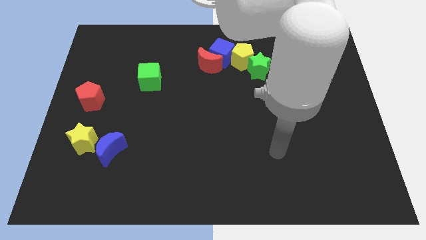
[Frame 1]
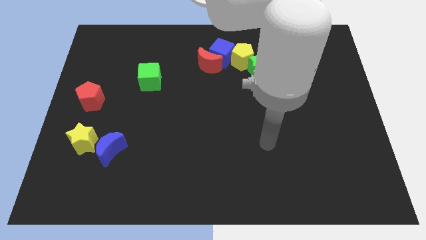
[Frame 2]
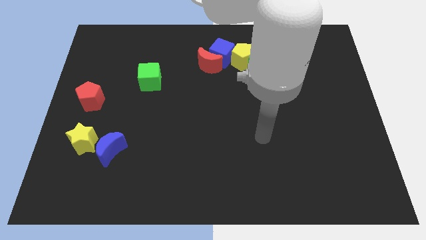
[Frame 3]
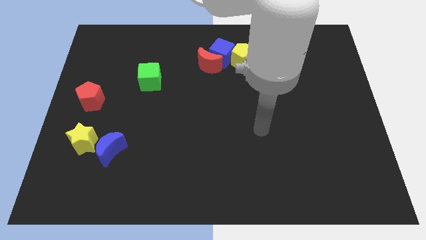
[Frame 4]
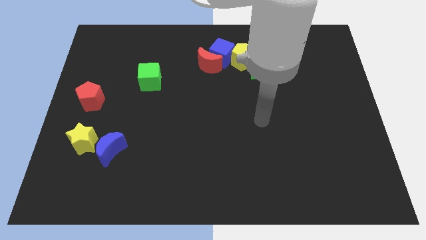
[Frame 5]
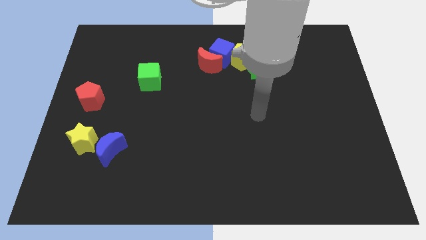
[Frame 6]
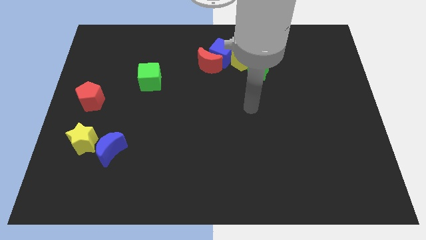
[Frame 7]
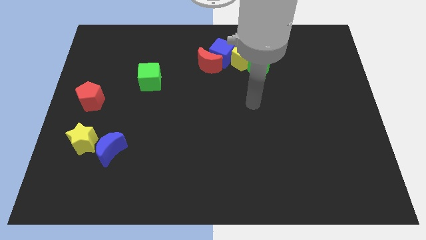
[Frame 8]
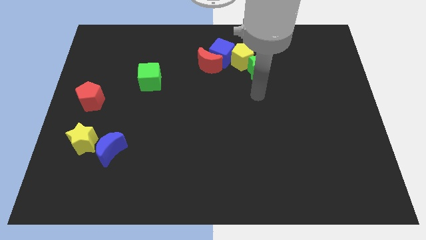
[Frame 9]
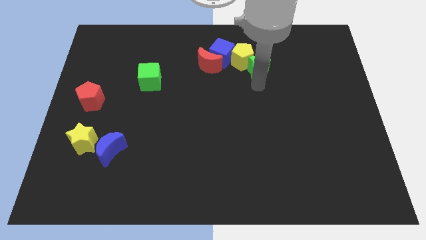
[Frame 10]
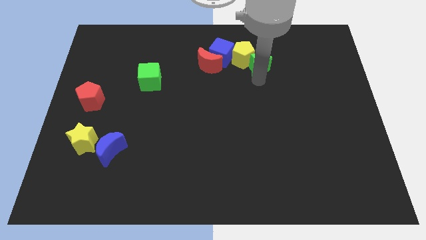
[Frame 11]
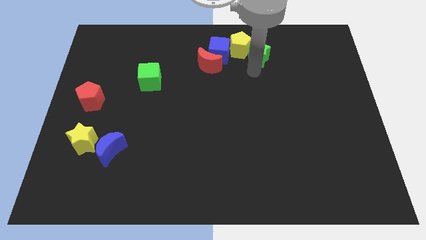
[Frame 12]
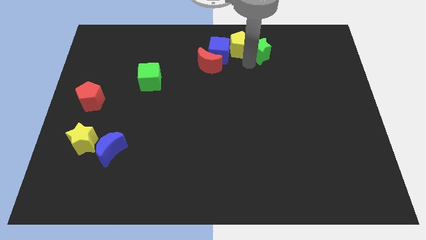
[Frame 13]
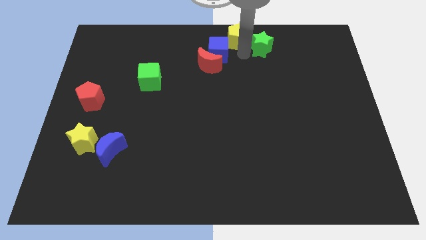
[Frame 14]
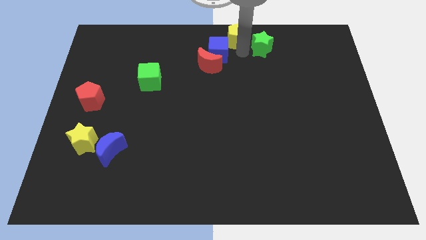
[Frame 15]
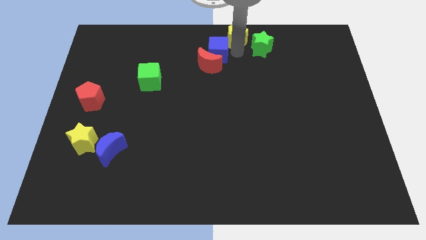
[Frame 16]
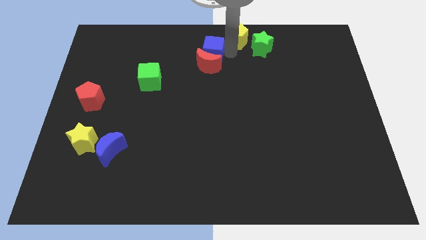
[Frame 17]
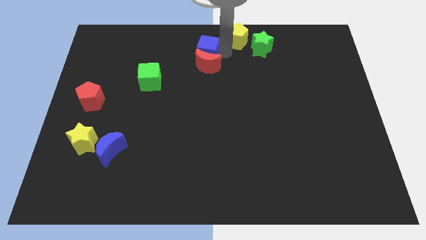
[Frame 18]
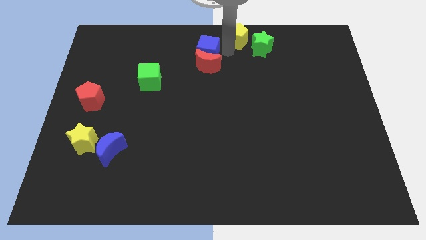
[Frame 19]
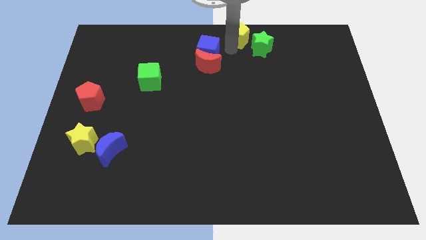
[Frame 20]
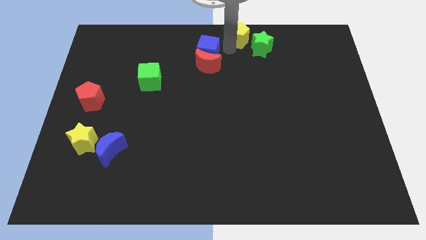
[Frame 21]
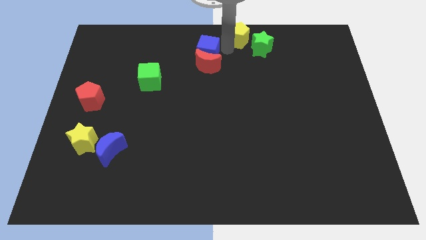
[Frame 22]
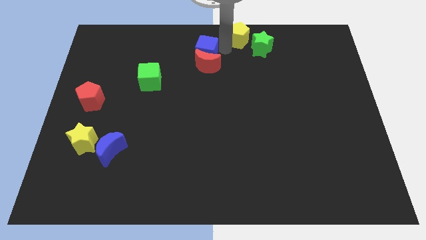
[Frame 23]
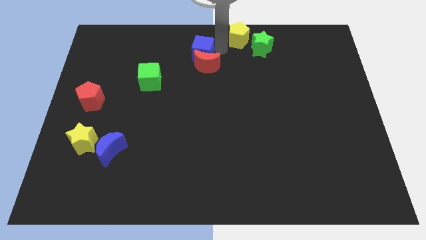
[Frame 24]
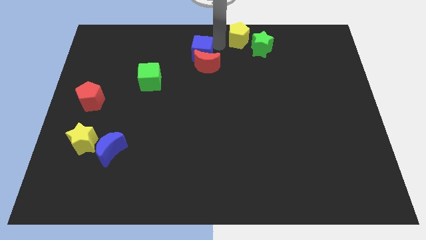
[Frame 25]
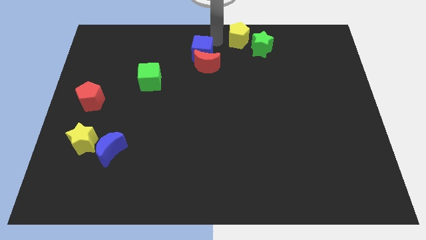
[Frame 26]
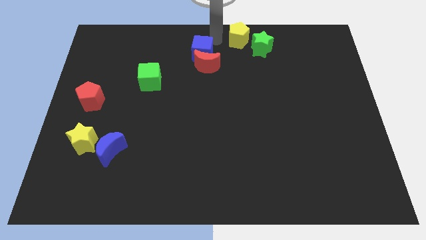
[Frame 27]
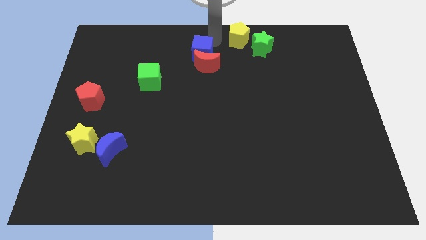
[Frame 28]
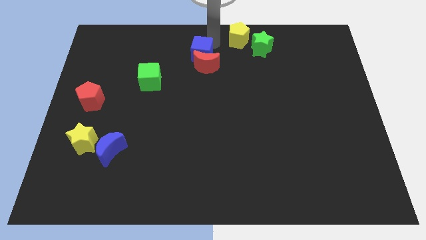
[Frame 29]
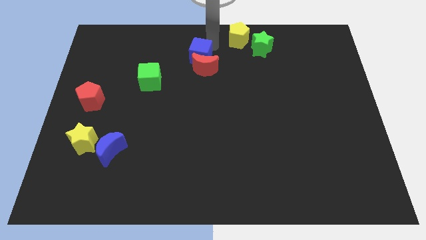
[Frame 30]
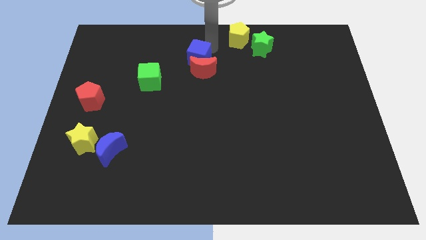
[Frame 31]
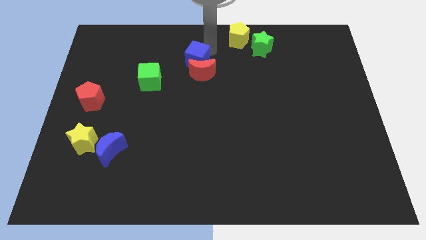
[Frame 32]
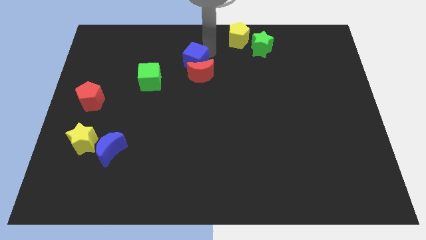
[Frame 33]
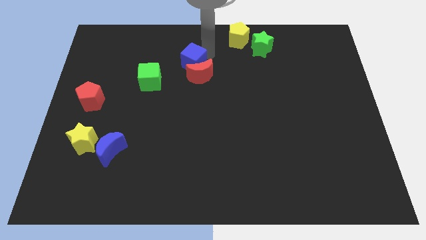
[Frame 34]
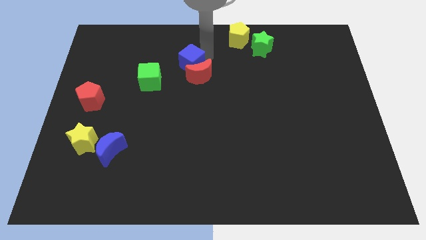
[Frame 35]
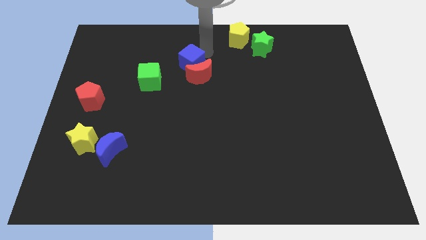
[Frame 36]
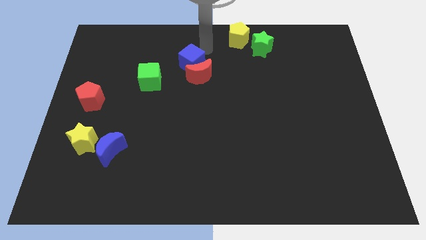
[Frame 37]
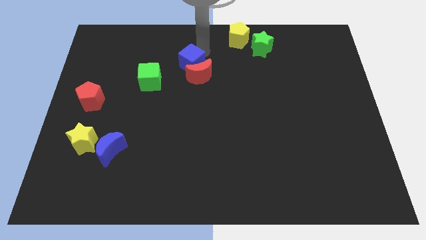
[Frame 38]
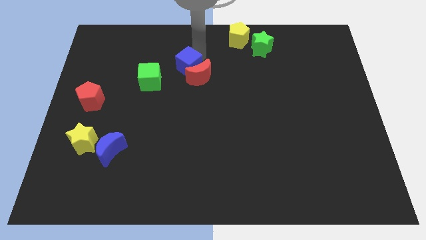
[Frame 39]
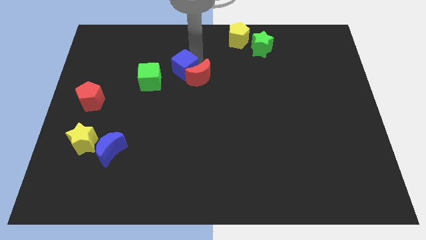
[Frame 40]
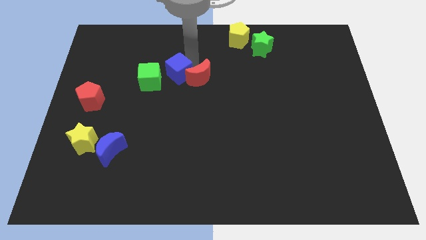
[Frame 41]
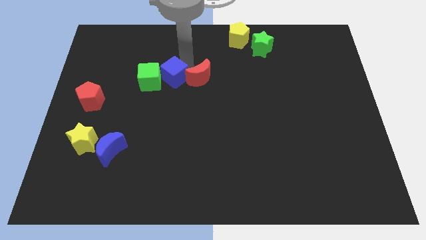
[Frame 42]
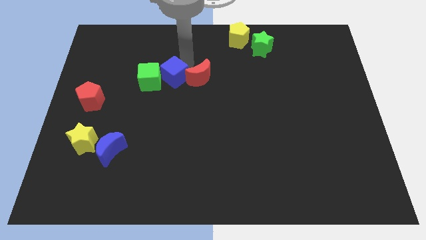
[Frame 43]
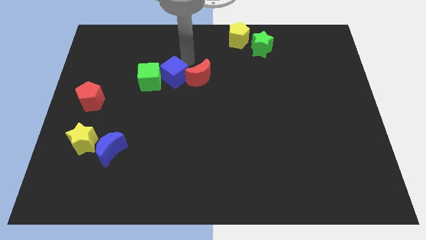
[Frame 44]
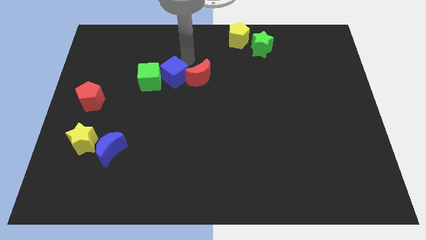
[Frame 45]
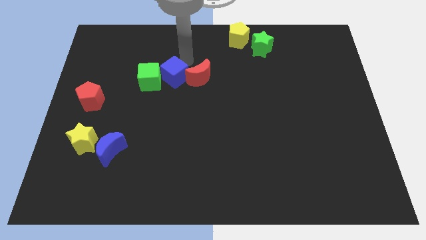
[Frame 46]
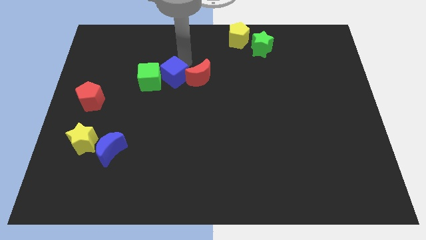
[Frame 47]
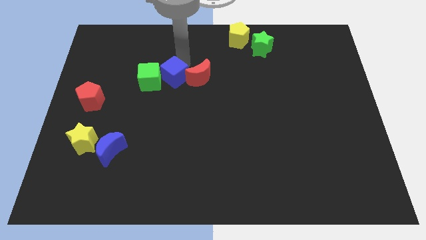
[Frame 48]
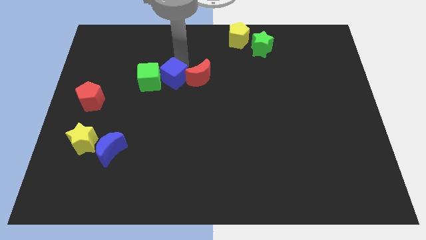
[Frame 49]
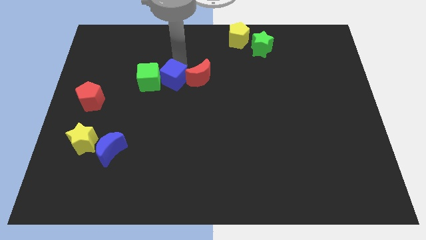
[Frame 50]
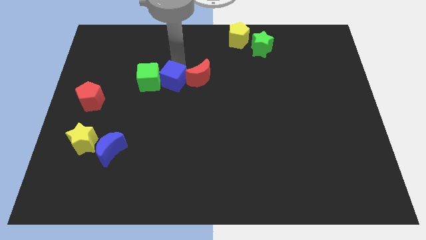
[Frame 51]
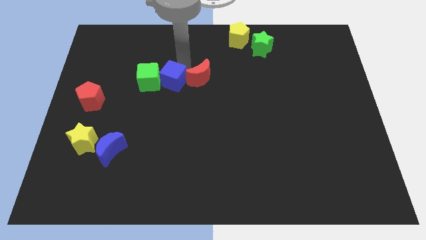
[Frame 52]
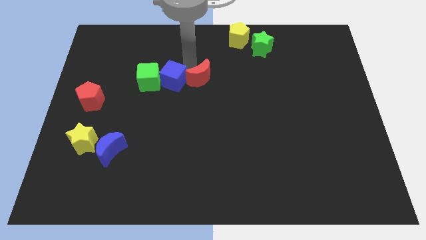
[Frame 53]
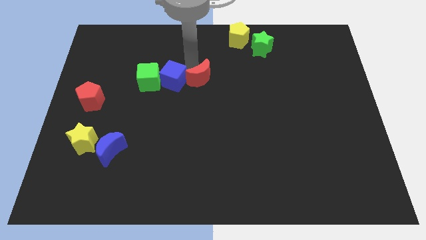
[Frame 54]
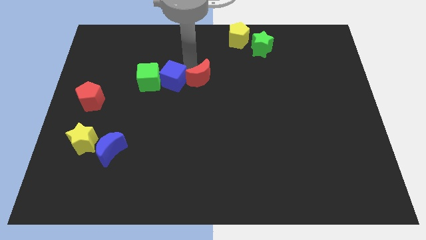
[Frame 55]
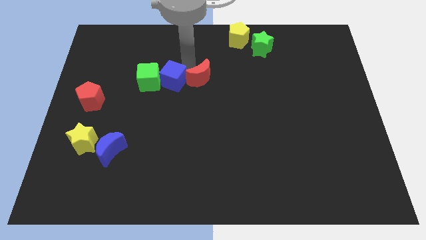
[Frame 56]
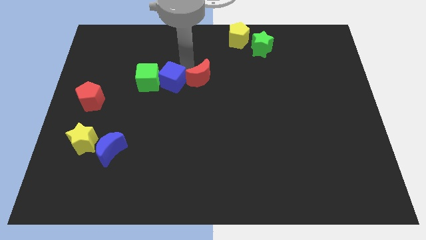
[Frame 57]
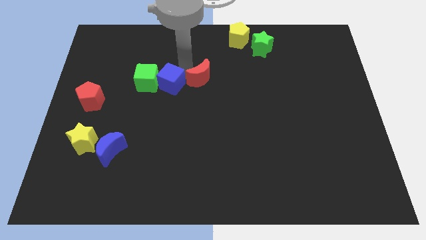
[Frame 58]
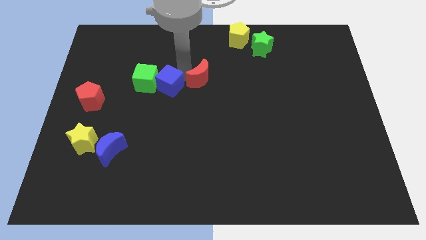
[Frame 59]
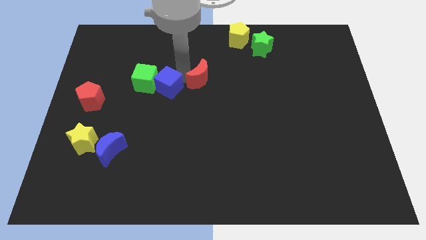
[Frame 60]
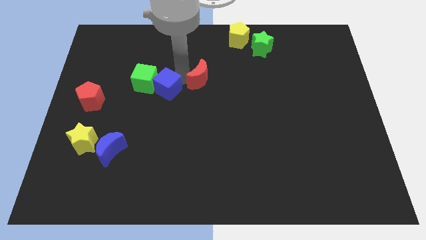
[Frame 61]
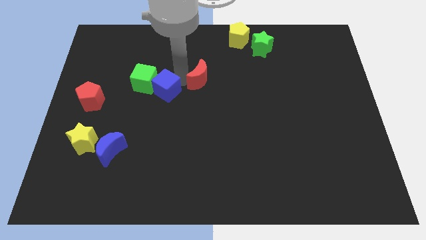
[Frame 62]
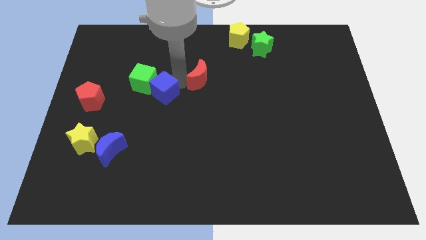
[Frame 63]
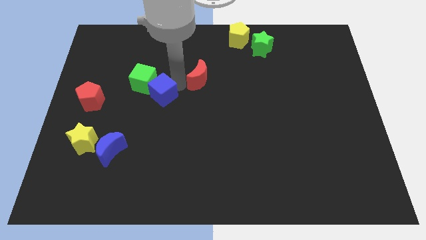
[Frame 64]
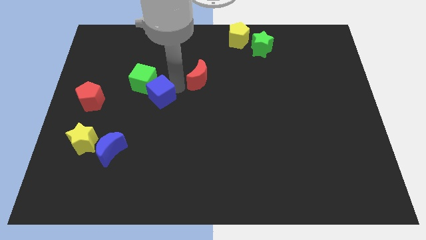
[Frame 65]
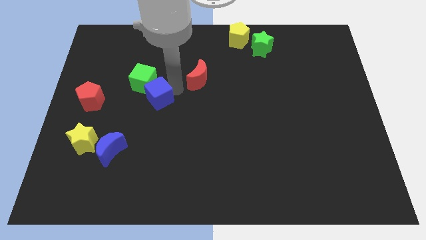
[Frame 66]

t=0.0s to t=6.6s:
put the blue cube just right of the red pentagon

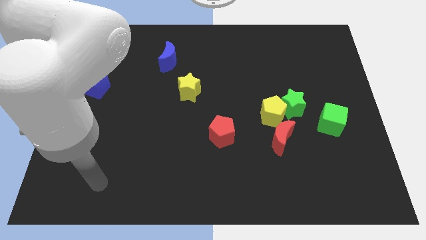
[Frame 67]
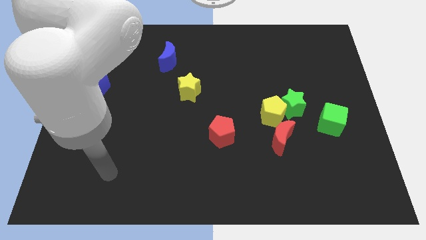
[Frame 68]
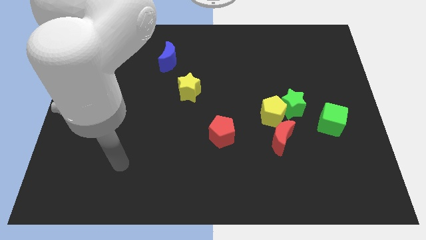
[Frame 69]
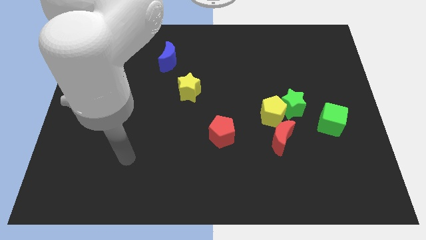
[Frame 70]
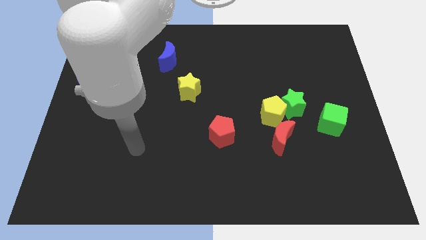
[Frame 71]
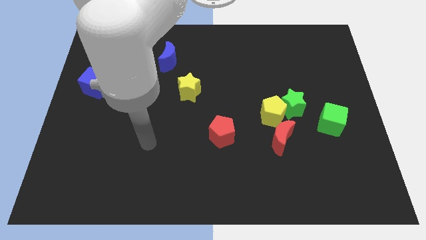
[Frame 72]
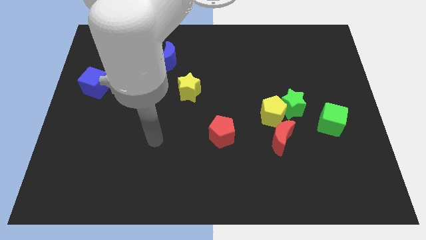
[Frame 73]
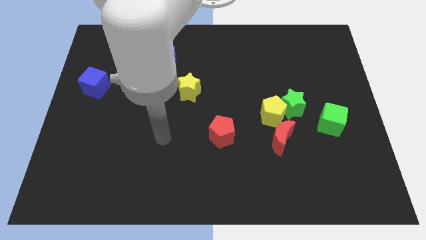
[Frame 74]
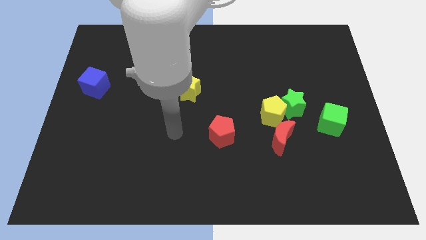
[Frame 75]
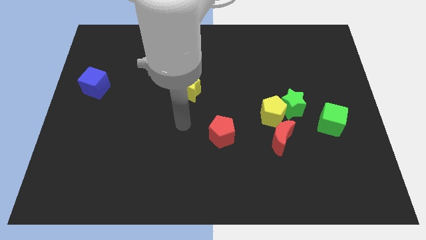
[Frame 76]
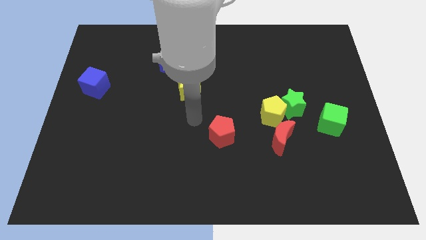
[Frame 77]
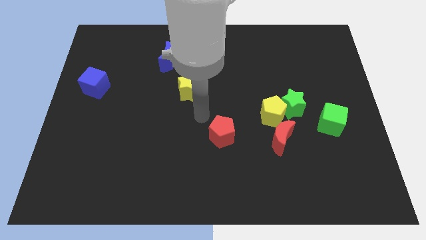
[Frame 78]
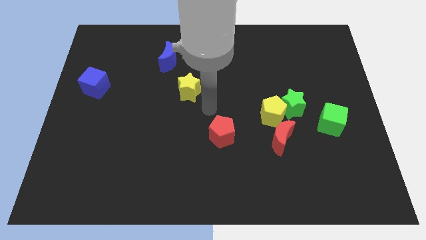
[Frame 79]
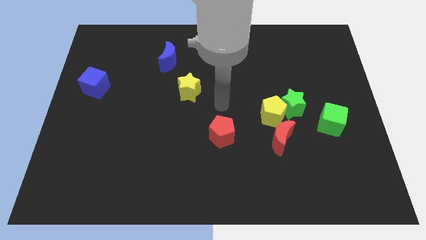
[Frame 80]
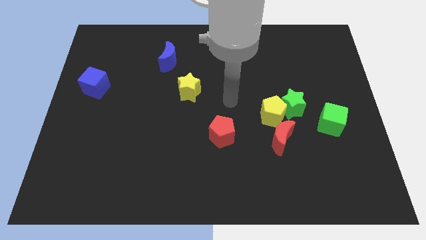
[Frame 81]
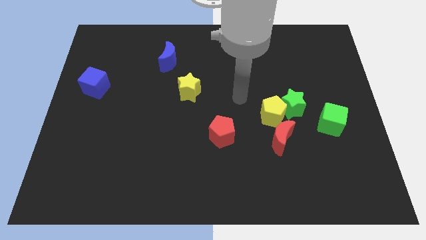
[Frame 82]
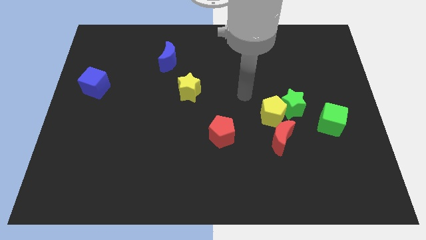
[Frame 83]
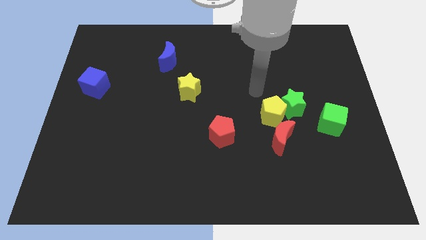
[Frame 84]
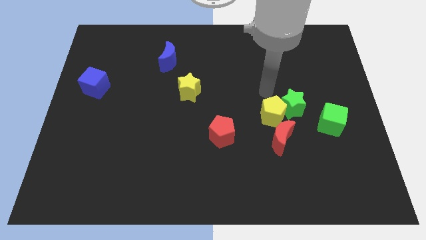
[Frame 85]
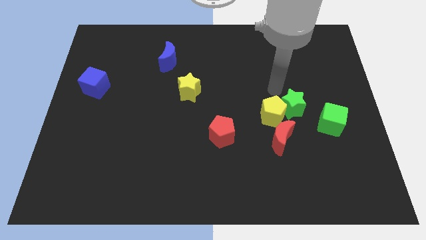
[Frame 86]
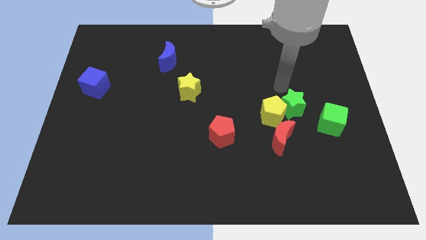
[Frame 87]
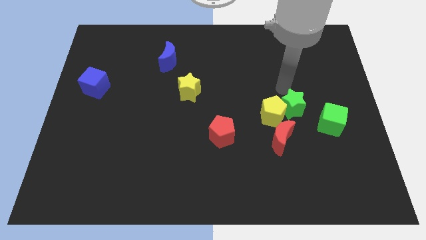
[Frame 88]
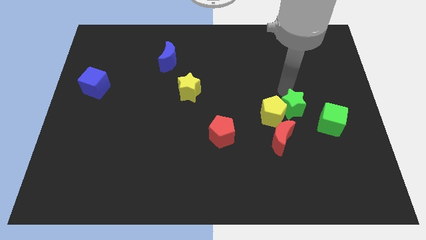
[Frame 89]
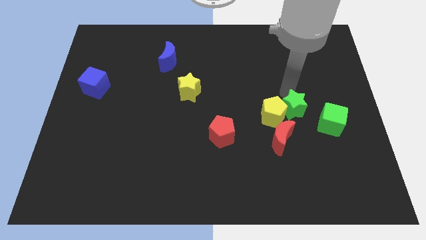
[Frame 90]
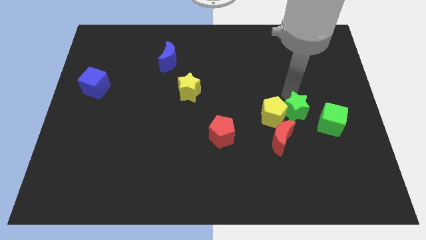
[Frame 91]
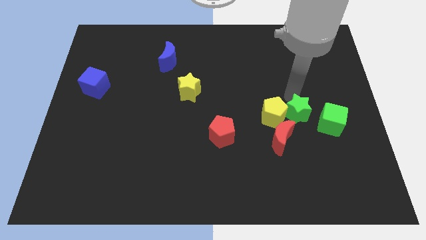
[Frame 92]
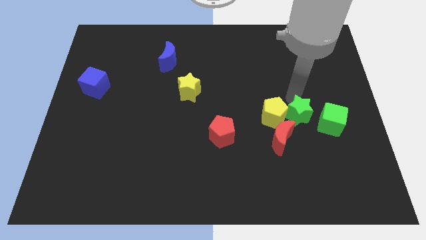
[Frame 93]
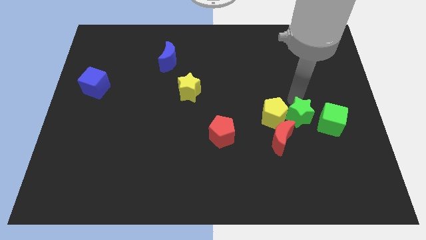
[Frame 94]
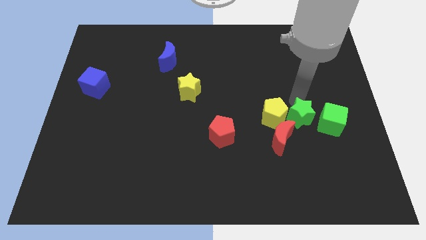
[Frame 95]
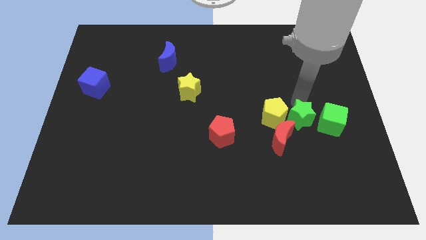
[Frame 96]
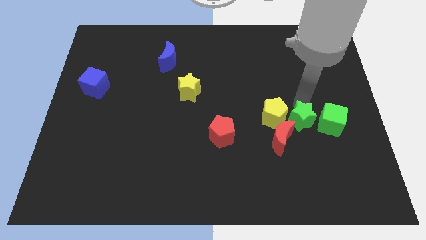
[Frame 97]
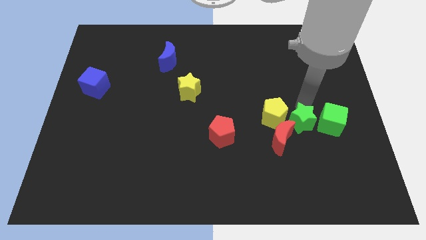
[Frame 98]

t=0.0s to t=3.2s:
put the green star to the bottom left of the green cube
